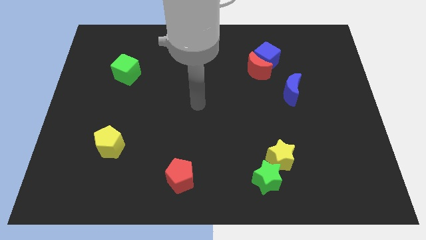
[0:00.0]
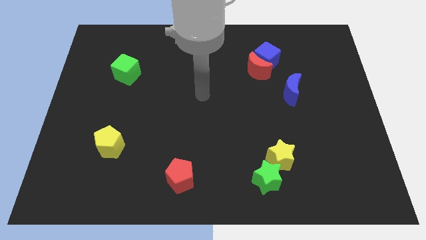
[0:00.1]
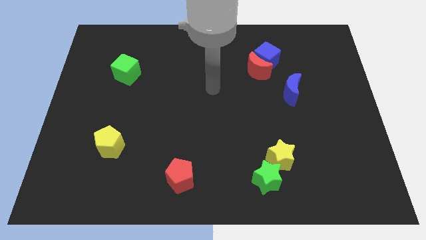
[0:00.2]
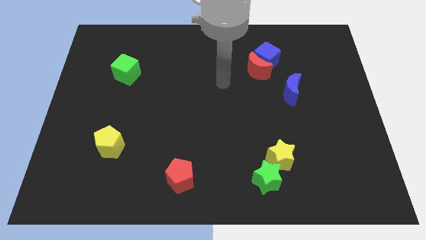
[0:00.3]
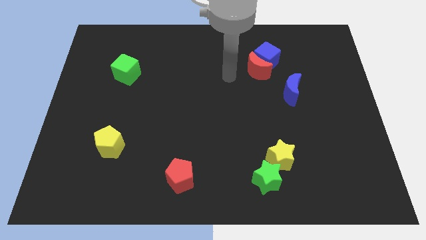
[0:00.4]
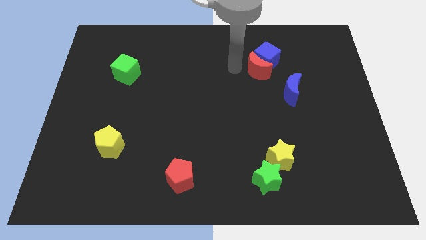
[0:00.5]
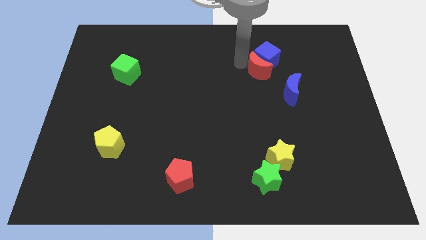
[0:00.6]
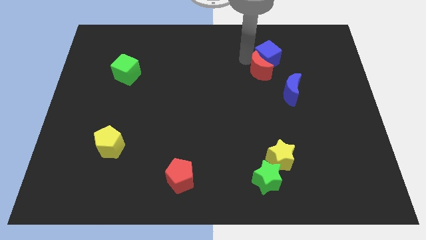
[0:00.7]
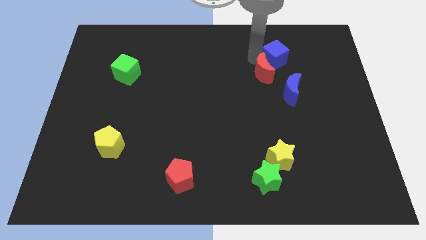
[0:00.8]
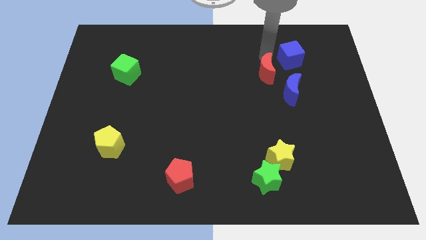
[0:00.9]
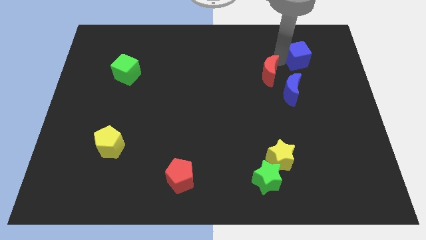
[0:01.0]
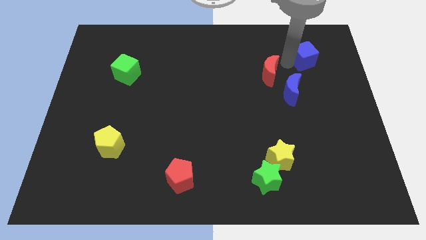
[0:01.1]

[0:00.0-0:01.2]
pull the red moon apart from the blue cube

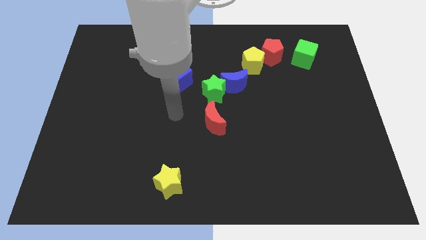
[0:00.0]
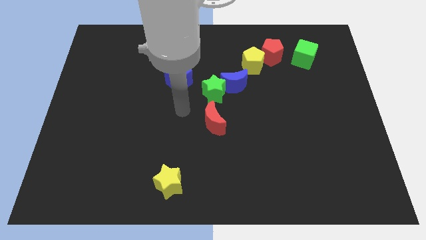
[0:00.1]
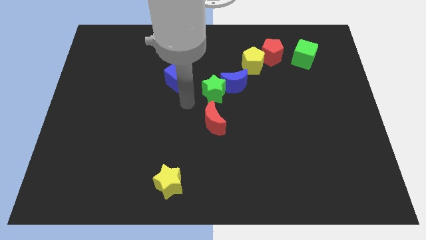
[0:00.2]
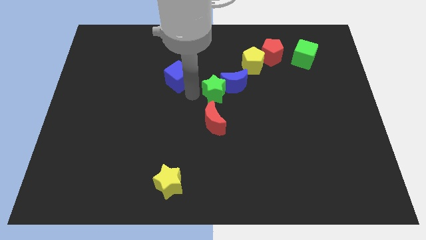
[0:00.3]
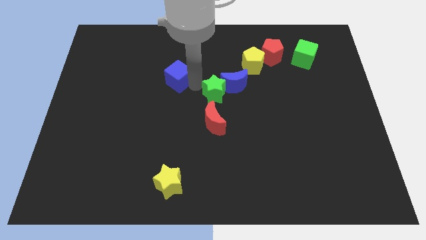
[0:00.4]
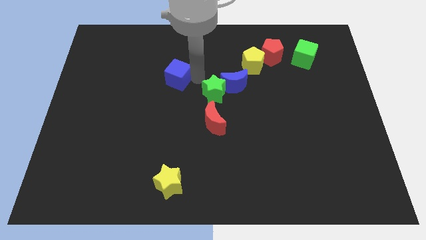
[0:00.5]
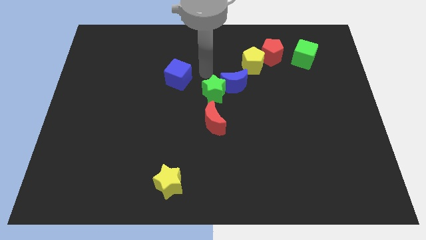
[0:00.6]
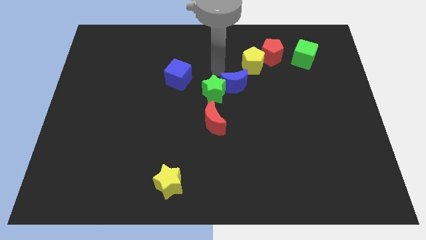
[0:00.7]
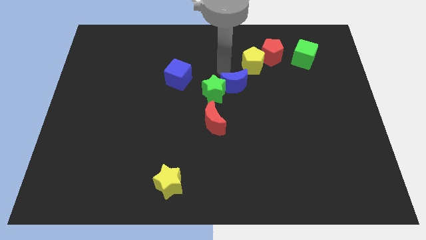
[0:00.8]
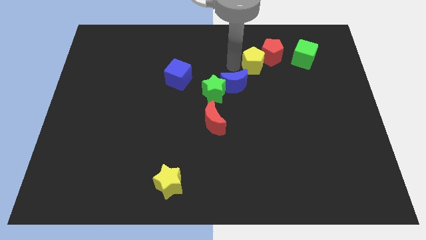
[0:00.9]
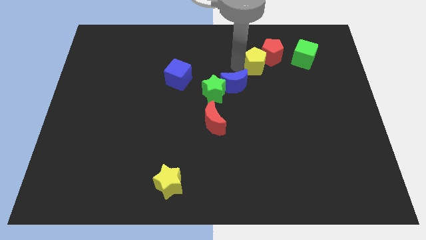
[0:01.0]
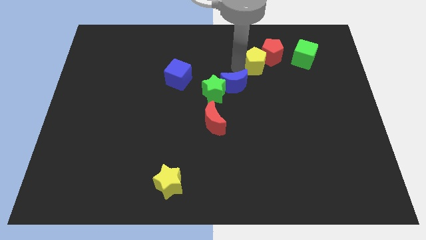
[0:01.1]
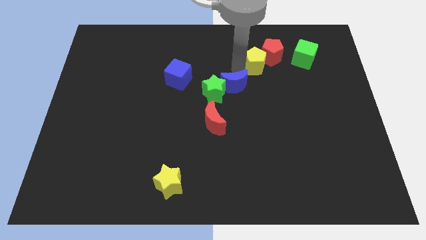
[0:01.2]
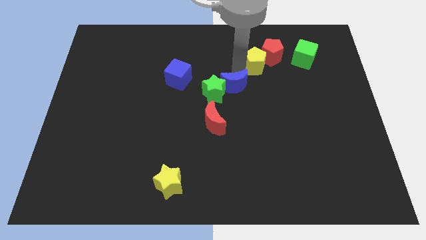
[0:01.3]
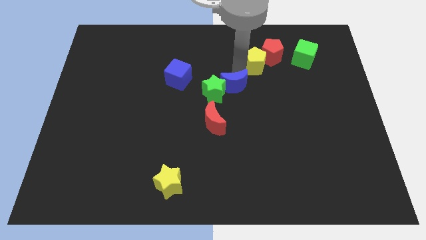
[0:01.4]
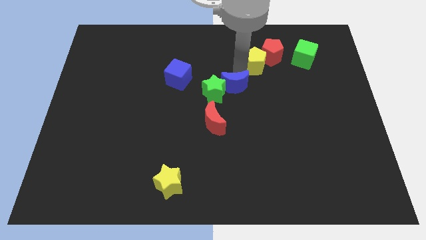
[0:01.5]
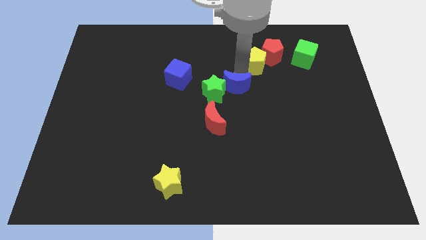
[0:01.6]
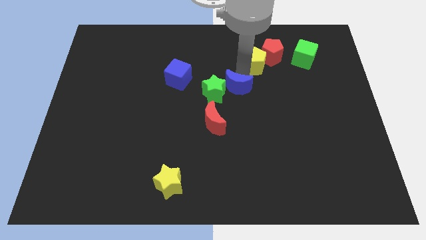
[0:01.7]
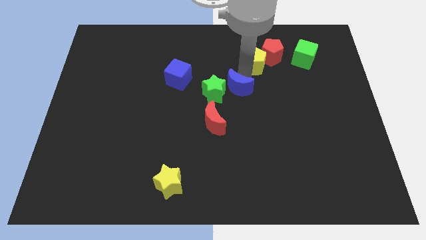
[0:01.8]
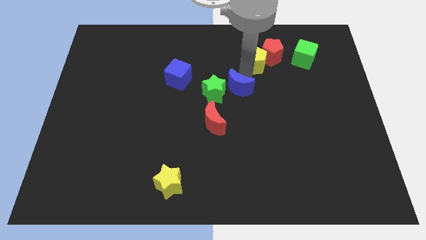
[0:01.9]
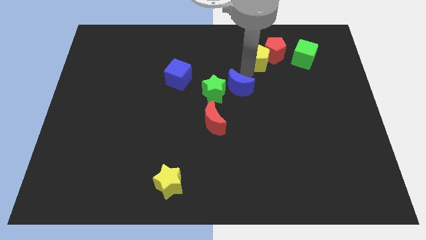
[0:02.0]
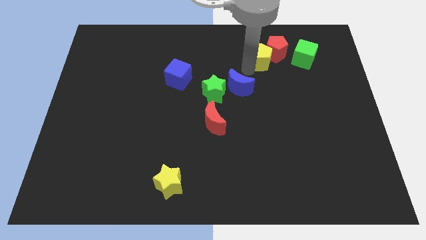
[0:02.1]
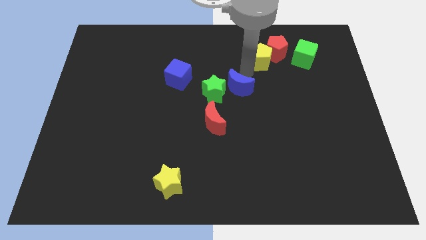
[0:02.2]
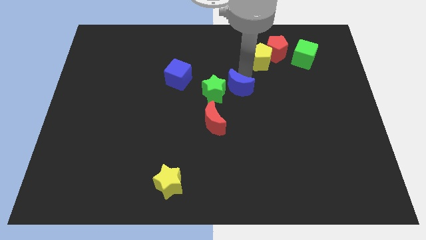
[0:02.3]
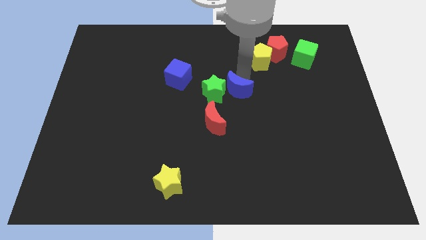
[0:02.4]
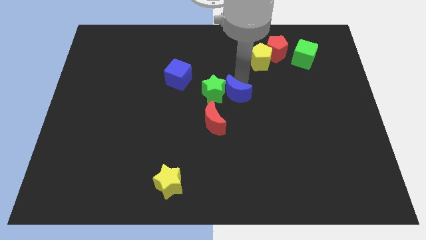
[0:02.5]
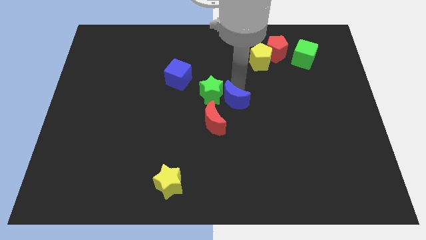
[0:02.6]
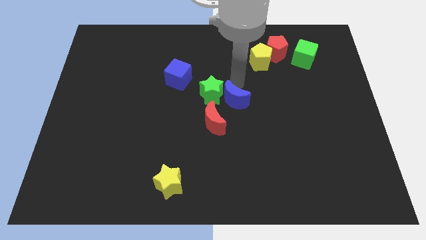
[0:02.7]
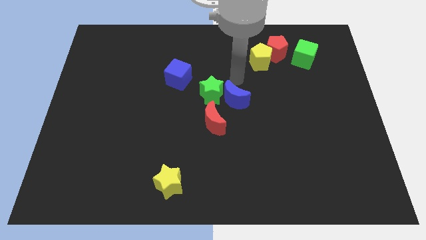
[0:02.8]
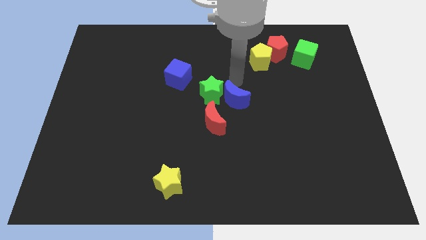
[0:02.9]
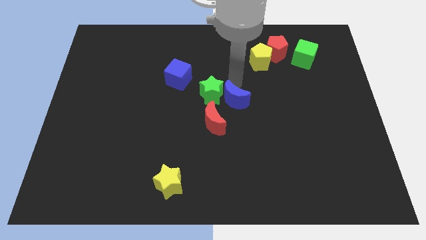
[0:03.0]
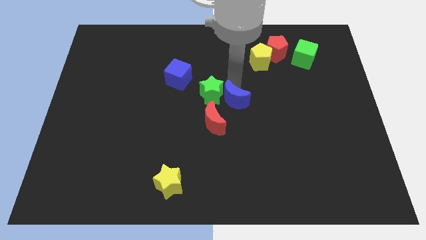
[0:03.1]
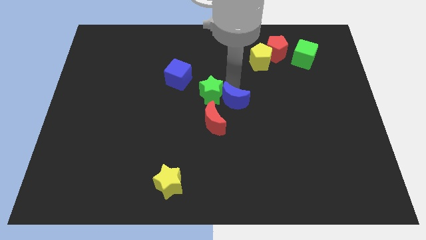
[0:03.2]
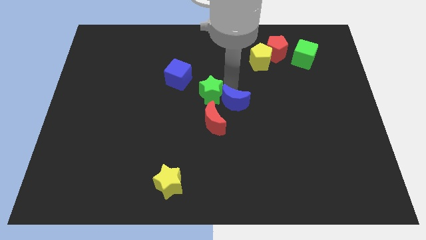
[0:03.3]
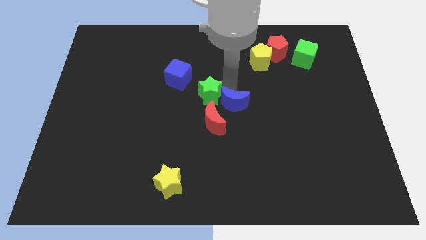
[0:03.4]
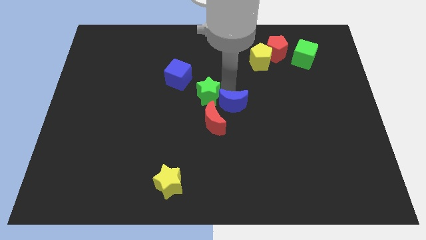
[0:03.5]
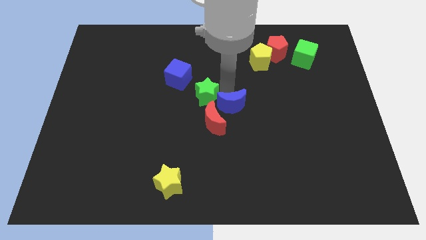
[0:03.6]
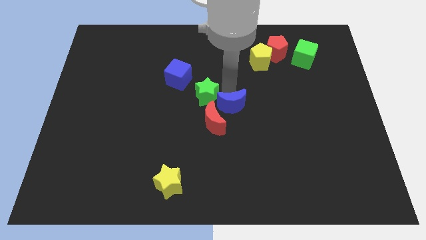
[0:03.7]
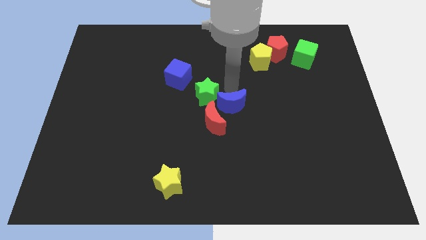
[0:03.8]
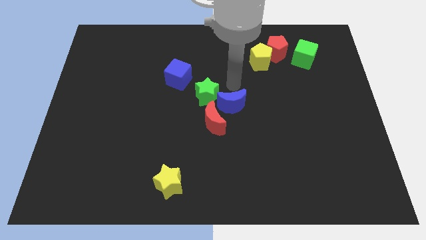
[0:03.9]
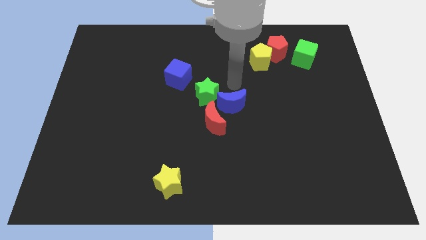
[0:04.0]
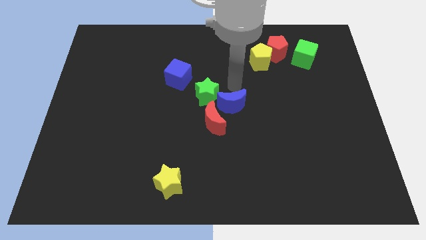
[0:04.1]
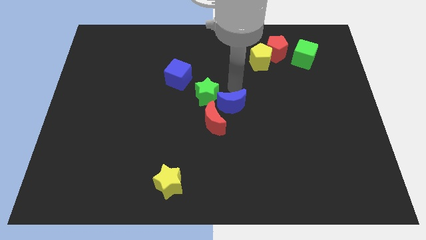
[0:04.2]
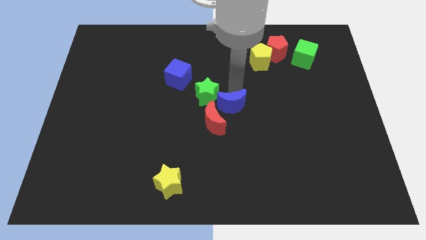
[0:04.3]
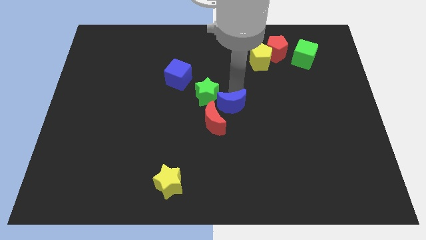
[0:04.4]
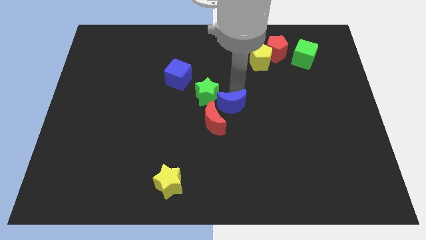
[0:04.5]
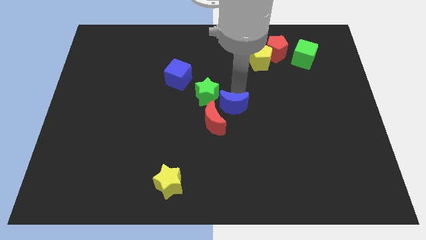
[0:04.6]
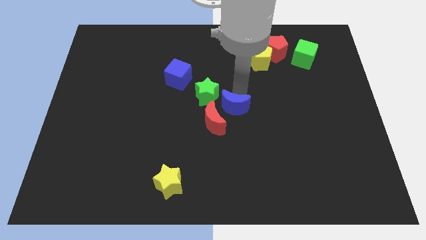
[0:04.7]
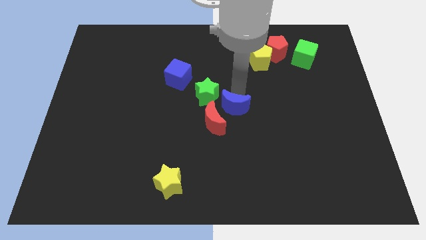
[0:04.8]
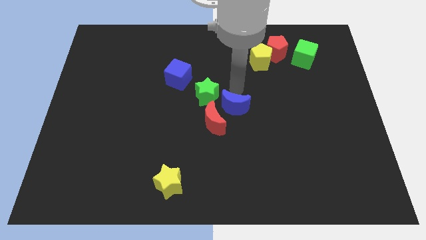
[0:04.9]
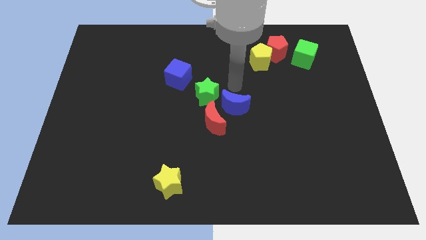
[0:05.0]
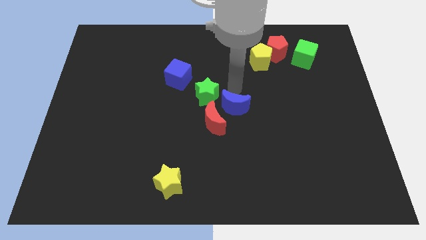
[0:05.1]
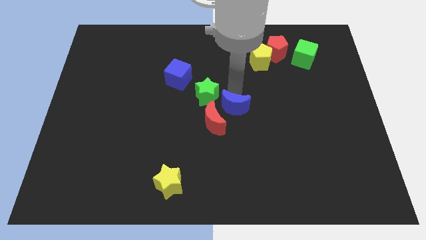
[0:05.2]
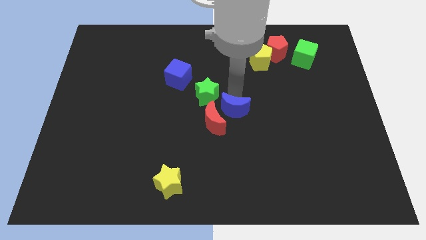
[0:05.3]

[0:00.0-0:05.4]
pull the blue moon apart from the green star and yellow pentagon

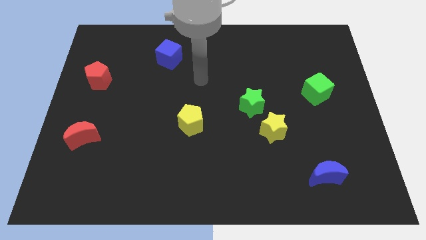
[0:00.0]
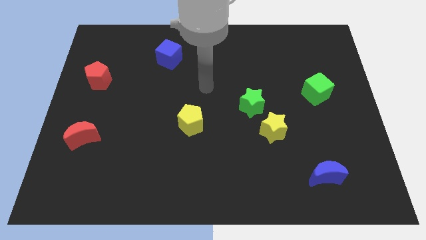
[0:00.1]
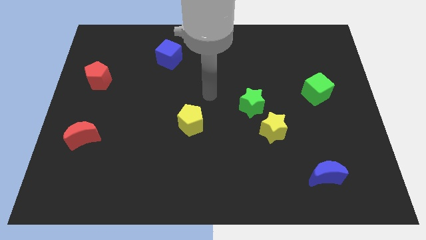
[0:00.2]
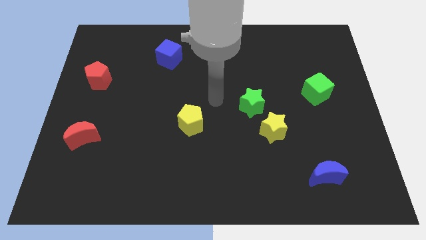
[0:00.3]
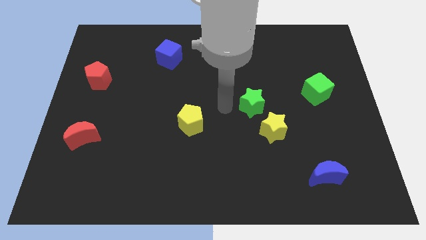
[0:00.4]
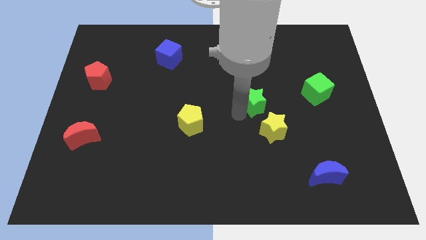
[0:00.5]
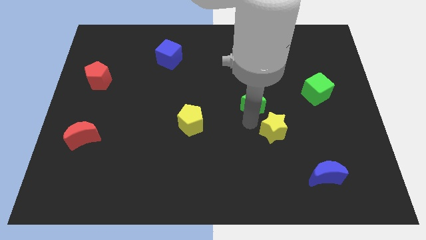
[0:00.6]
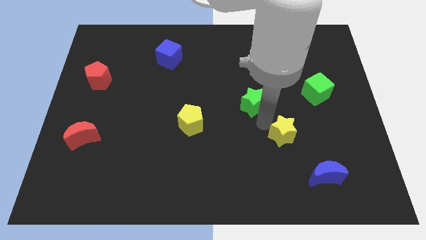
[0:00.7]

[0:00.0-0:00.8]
separate the green star from the yellow star

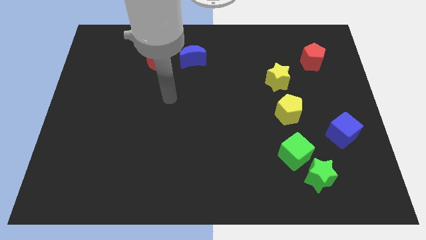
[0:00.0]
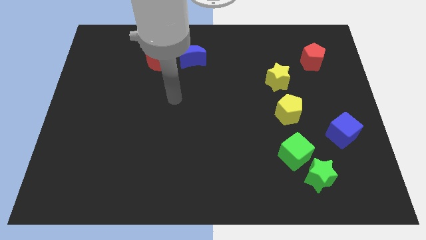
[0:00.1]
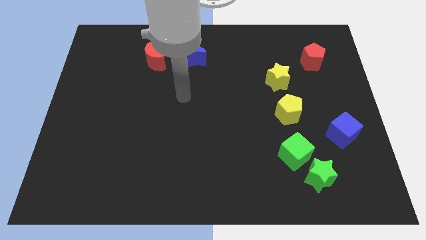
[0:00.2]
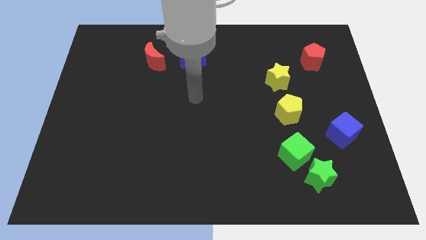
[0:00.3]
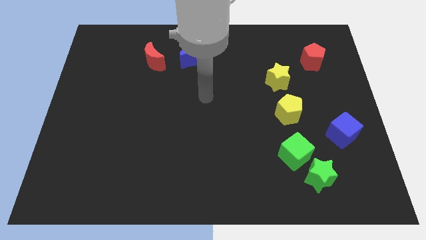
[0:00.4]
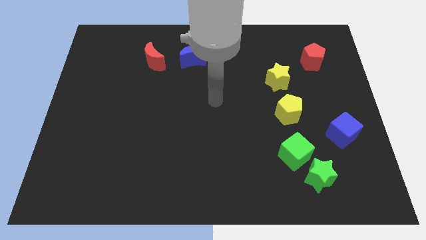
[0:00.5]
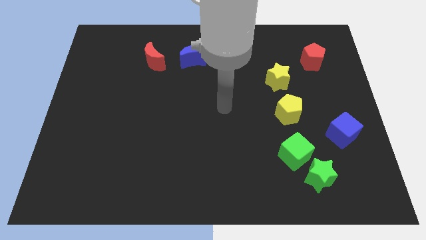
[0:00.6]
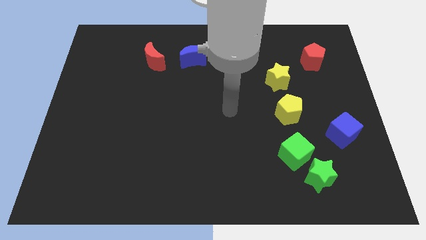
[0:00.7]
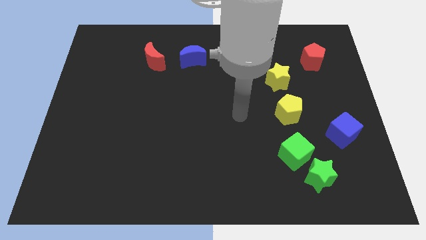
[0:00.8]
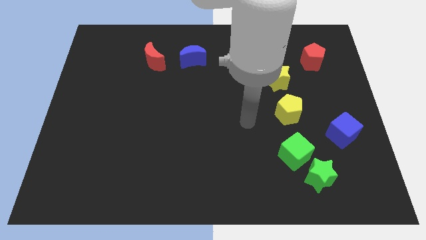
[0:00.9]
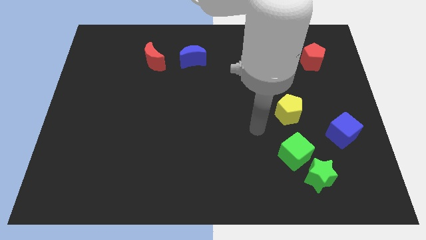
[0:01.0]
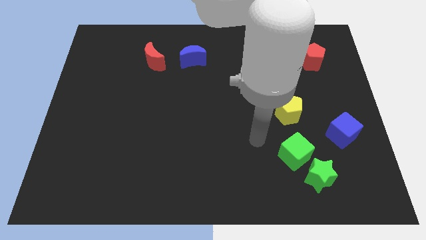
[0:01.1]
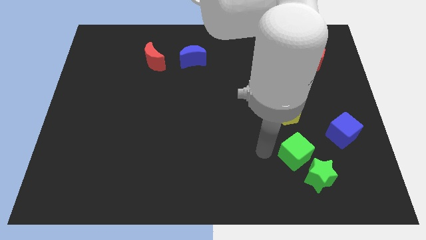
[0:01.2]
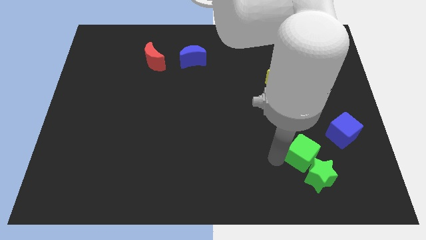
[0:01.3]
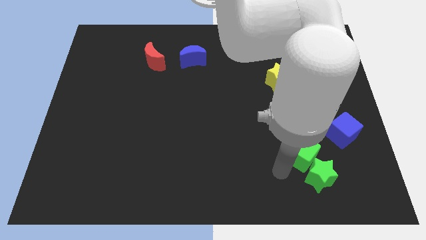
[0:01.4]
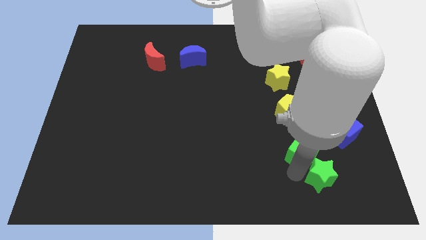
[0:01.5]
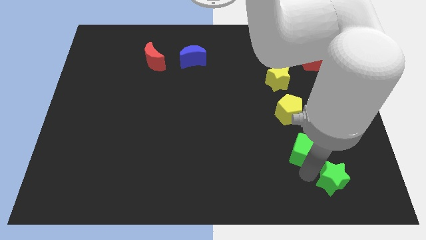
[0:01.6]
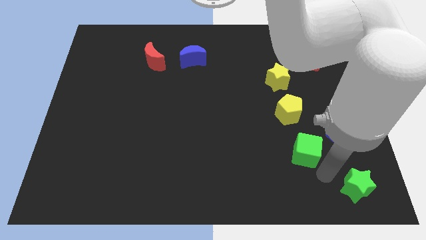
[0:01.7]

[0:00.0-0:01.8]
pull the green cube apart from the green star
